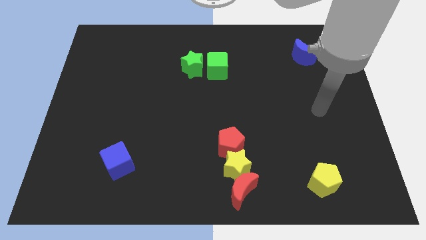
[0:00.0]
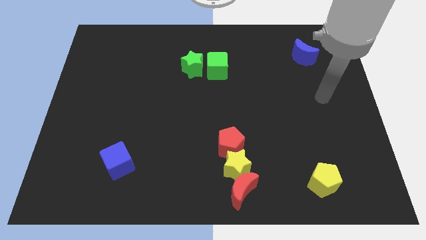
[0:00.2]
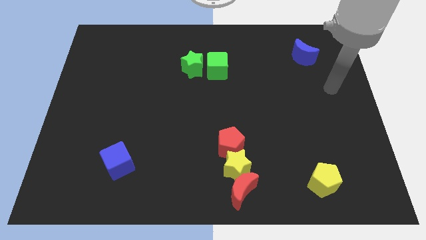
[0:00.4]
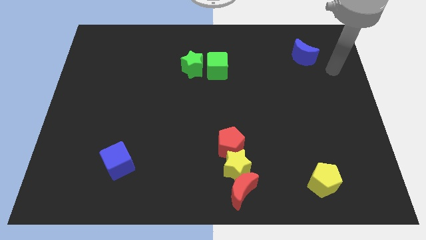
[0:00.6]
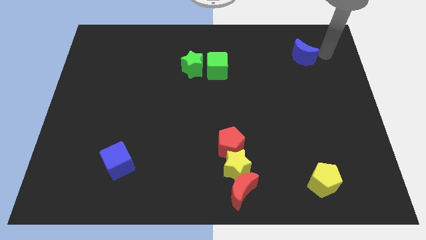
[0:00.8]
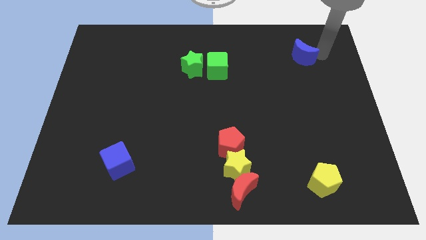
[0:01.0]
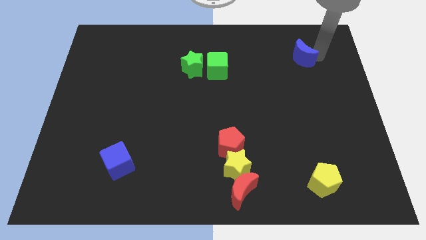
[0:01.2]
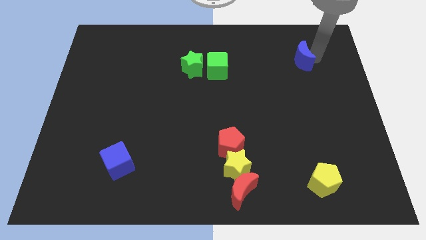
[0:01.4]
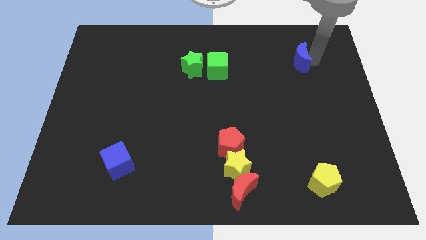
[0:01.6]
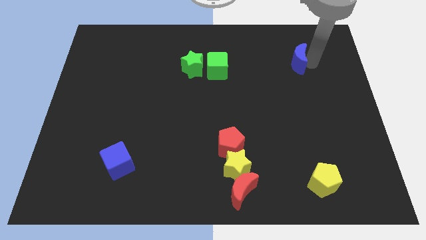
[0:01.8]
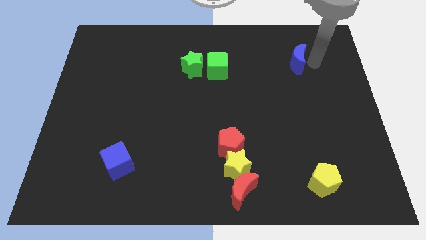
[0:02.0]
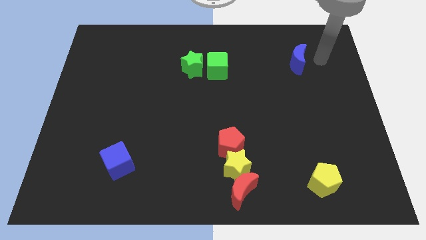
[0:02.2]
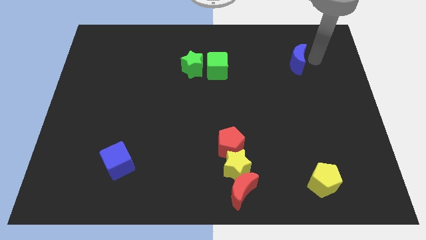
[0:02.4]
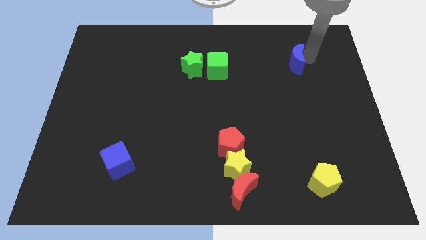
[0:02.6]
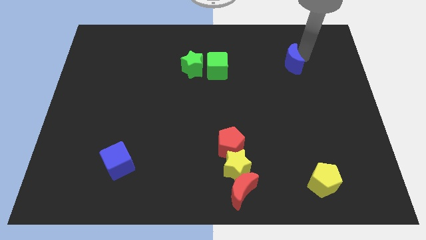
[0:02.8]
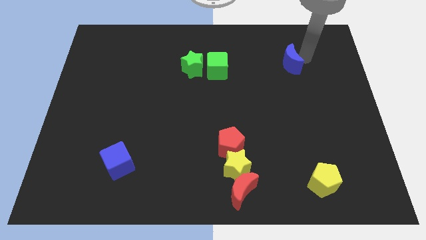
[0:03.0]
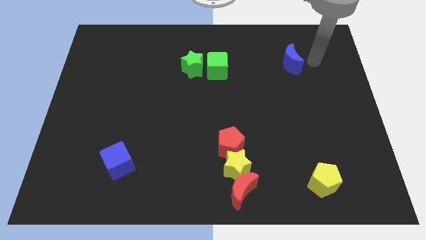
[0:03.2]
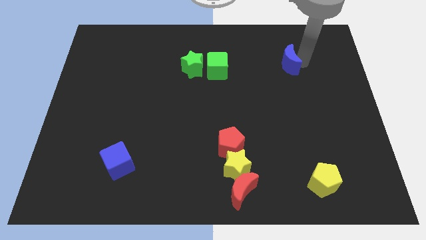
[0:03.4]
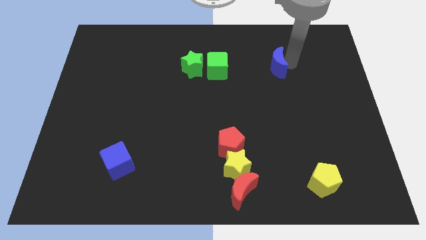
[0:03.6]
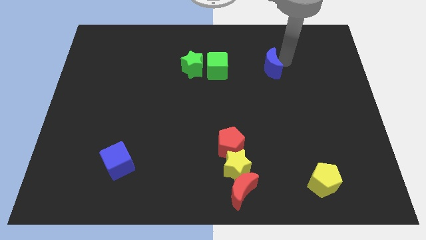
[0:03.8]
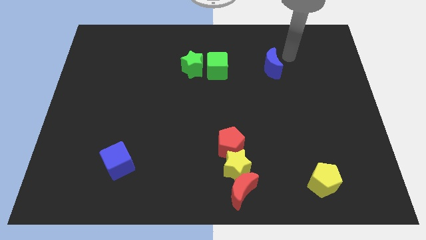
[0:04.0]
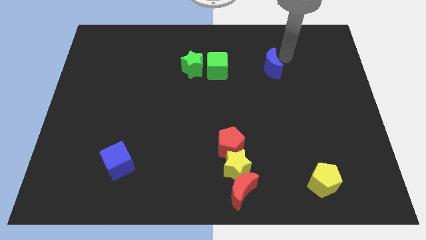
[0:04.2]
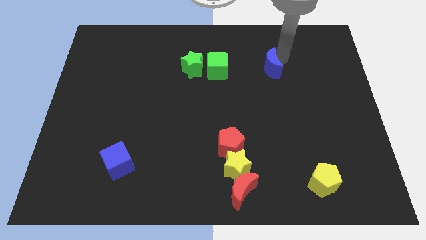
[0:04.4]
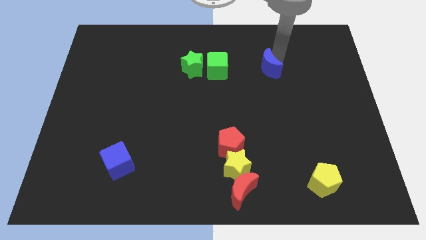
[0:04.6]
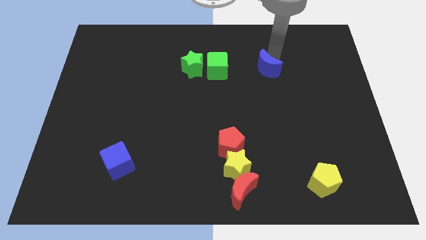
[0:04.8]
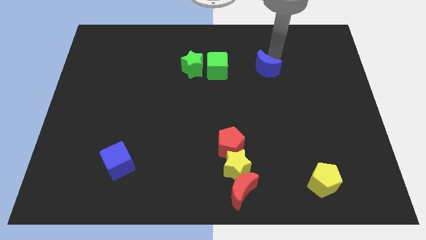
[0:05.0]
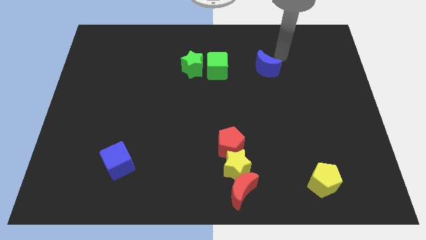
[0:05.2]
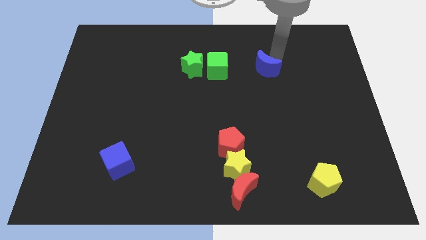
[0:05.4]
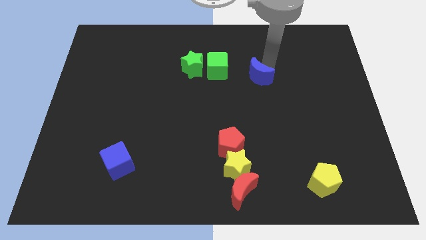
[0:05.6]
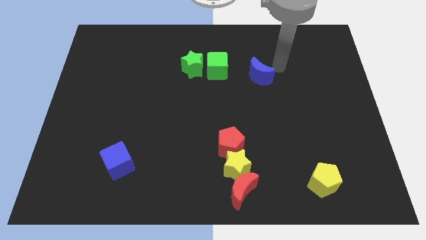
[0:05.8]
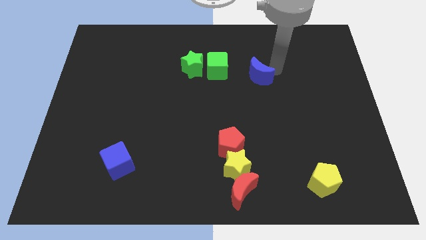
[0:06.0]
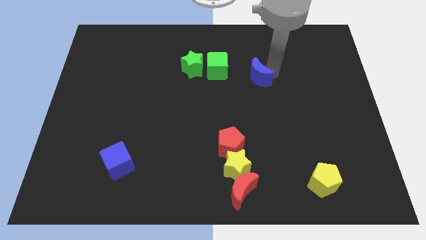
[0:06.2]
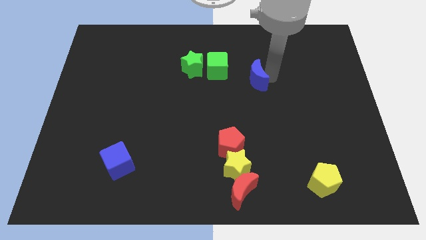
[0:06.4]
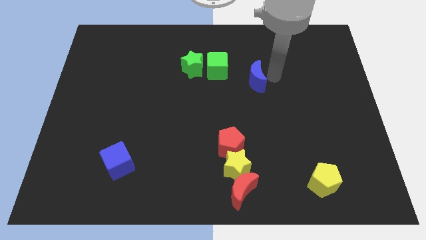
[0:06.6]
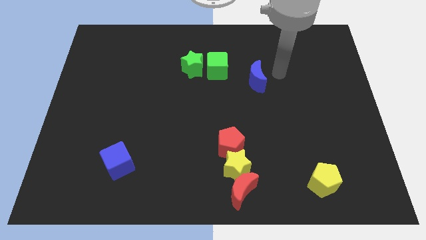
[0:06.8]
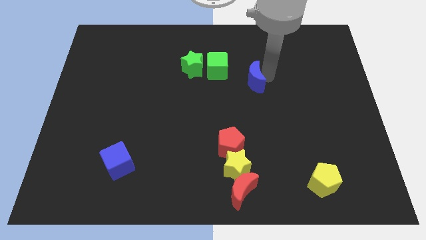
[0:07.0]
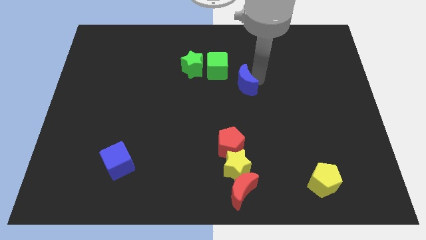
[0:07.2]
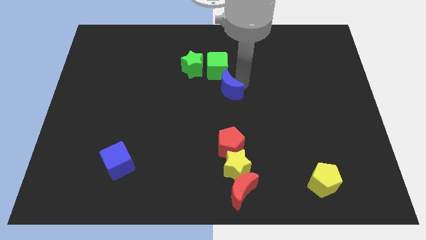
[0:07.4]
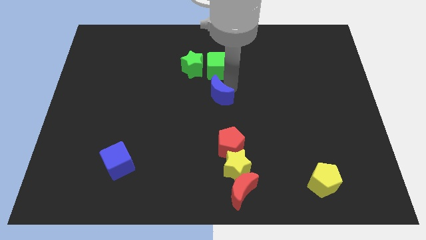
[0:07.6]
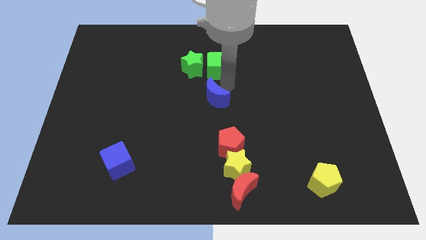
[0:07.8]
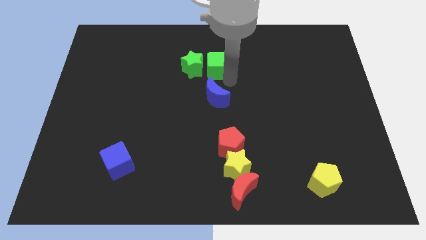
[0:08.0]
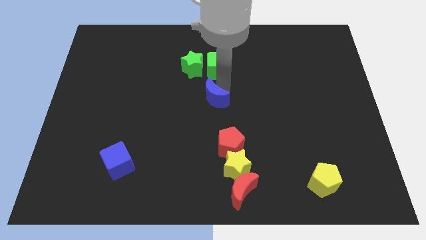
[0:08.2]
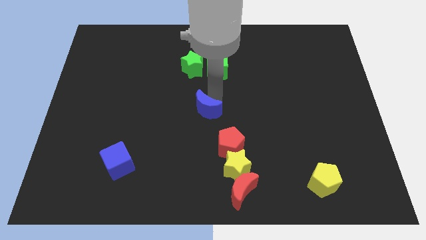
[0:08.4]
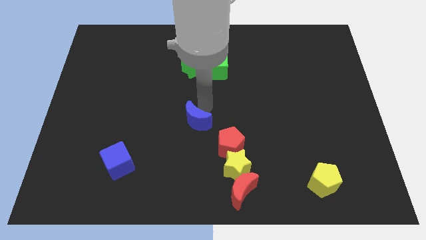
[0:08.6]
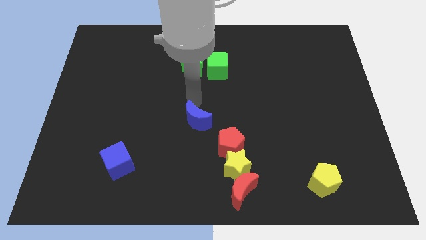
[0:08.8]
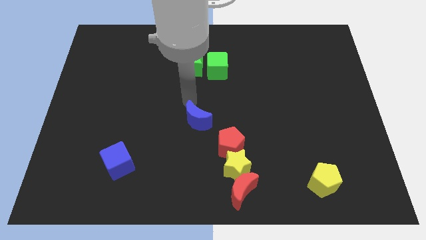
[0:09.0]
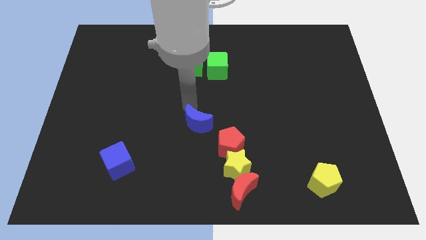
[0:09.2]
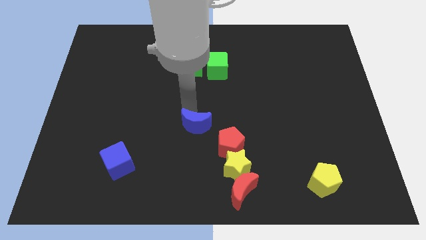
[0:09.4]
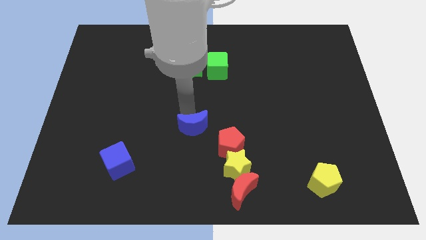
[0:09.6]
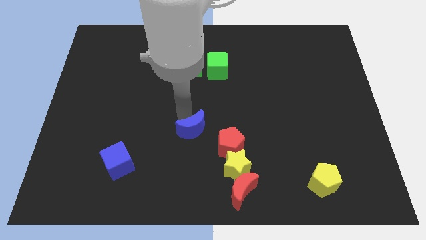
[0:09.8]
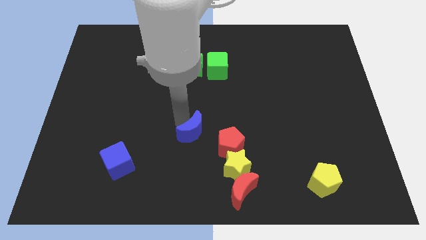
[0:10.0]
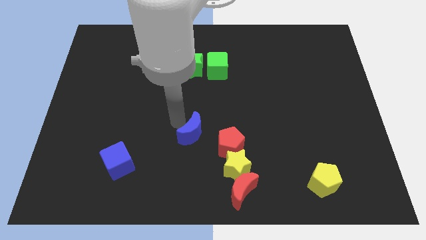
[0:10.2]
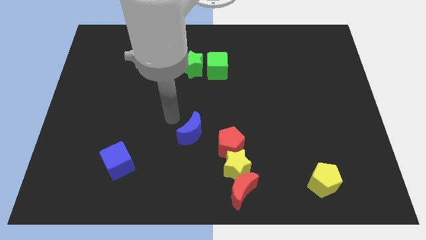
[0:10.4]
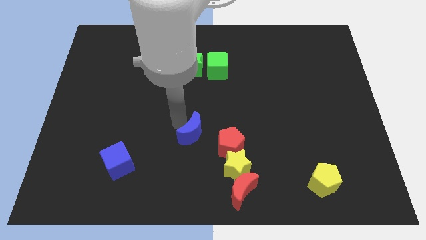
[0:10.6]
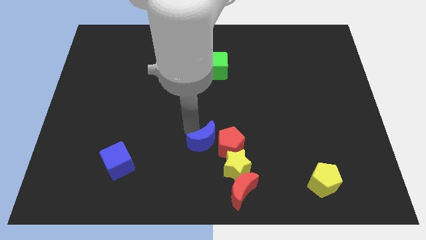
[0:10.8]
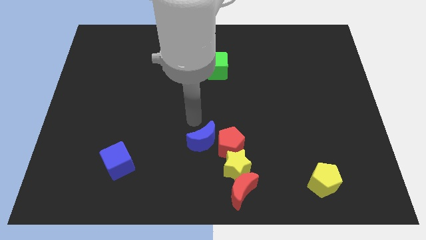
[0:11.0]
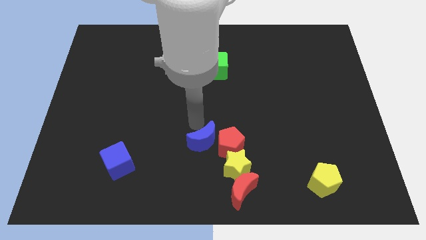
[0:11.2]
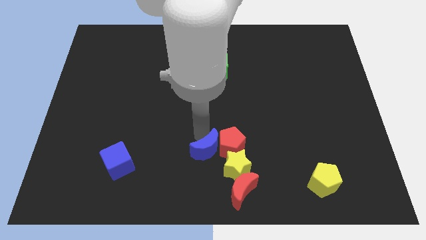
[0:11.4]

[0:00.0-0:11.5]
put the blue moon diagonally up and to the left of the red moon

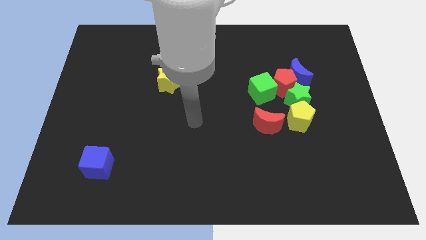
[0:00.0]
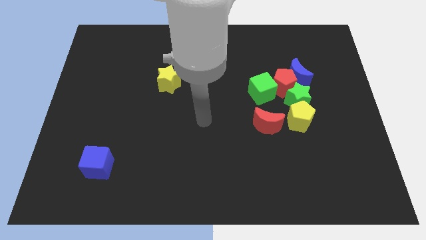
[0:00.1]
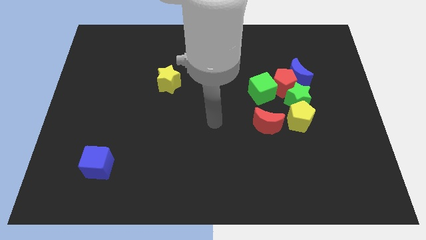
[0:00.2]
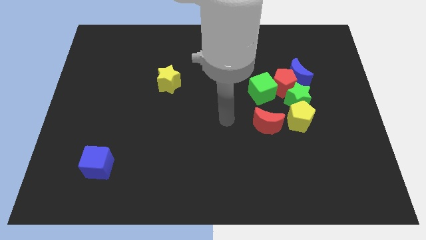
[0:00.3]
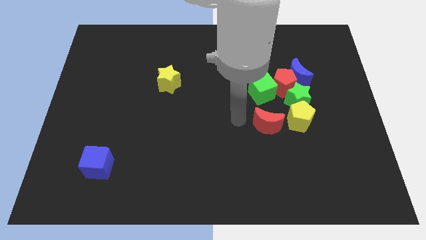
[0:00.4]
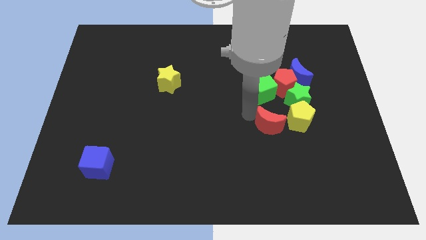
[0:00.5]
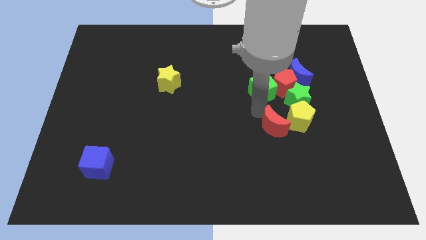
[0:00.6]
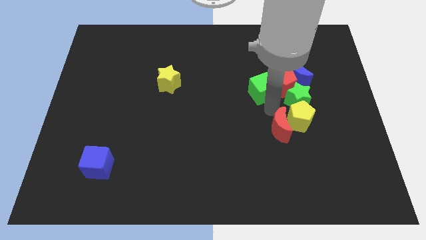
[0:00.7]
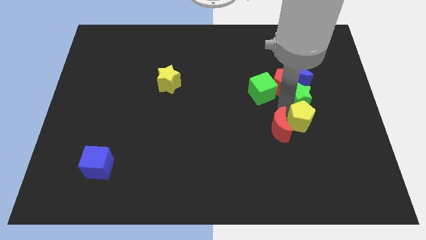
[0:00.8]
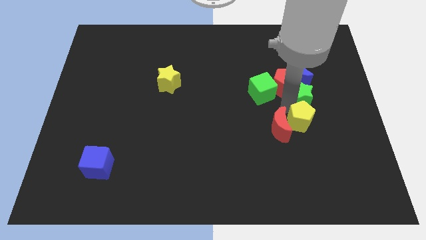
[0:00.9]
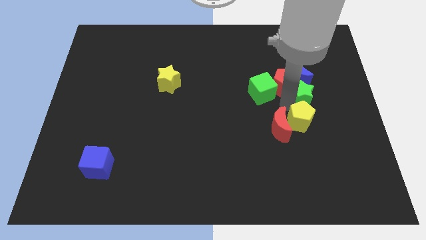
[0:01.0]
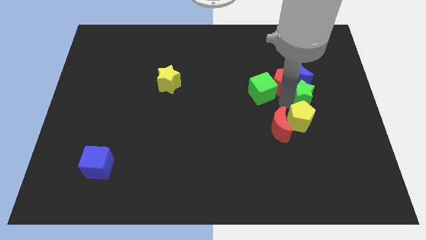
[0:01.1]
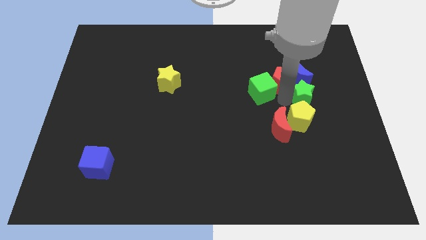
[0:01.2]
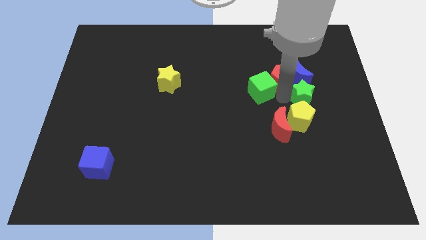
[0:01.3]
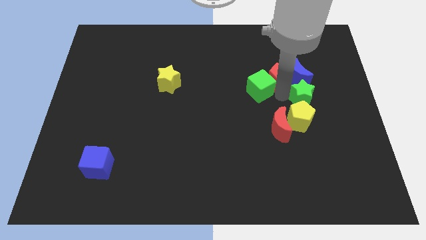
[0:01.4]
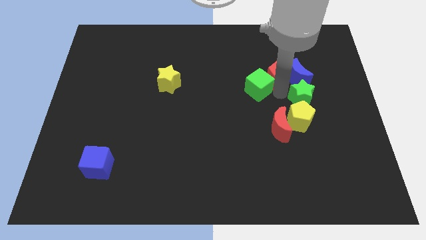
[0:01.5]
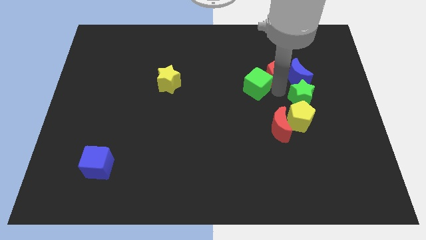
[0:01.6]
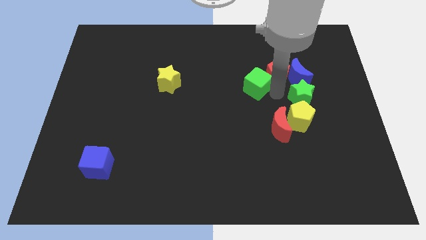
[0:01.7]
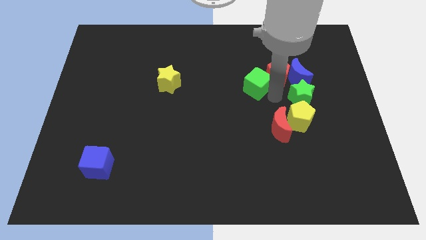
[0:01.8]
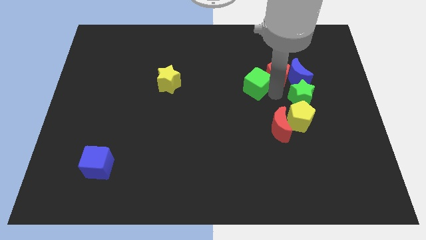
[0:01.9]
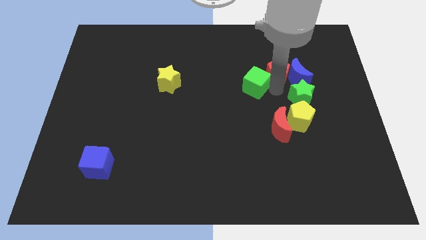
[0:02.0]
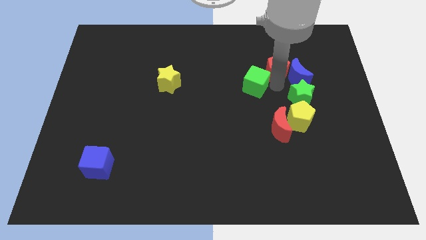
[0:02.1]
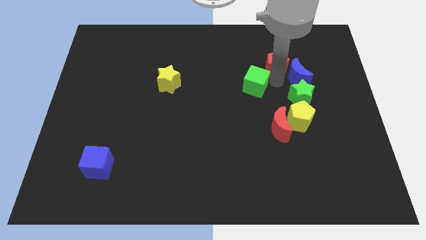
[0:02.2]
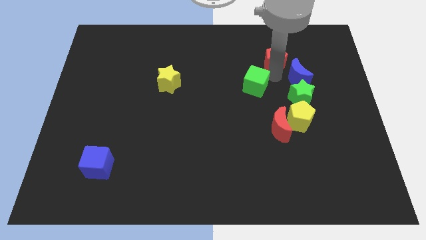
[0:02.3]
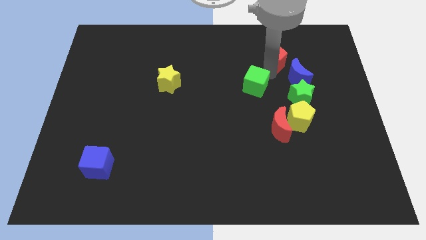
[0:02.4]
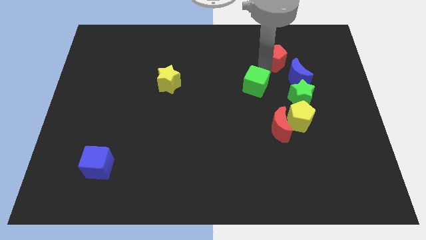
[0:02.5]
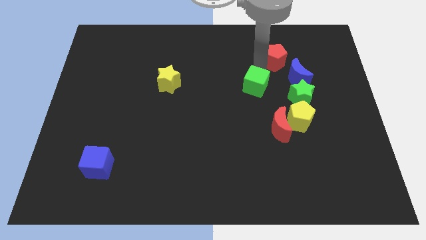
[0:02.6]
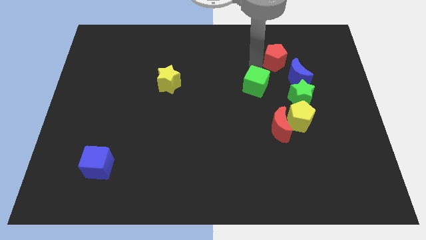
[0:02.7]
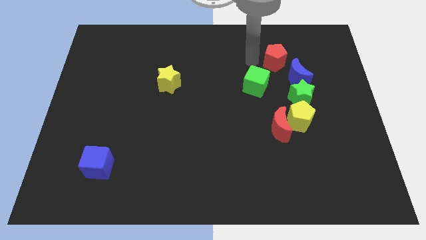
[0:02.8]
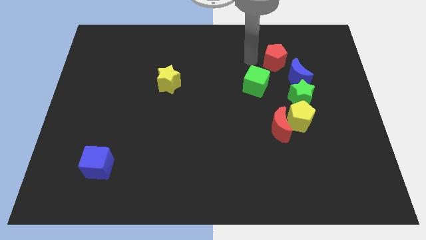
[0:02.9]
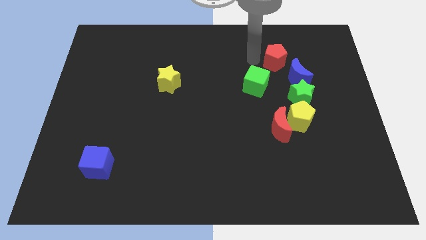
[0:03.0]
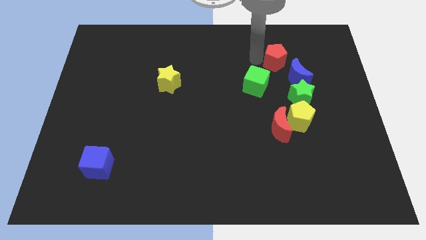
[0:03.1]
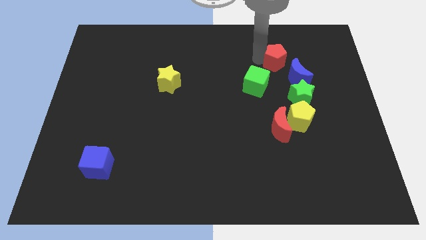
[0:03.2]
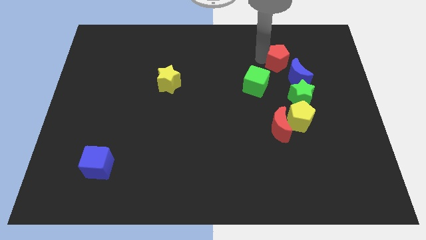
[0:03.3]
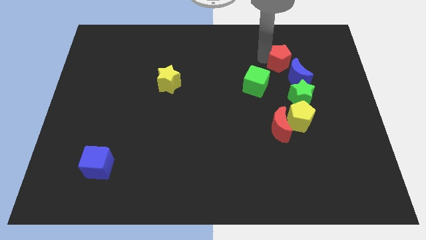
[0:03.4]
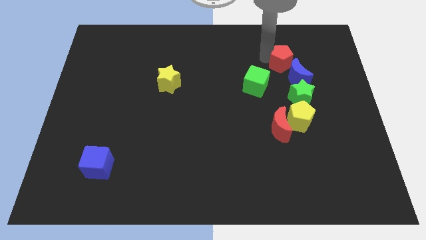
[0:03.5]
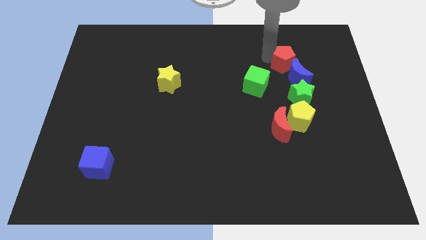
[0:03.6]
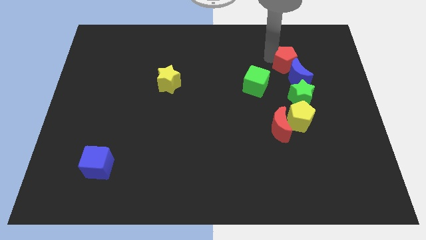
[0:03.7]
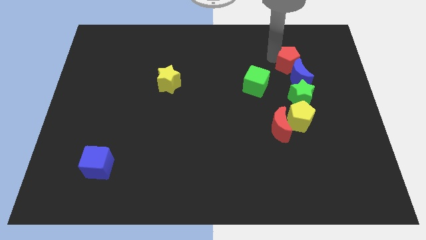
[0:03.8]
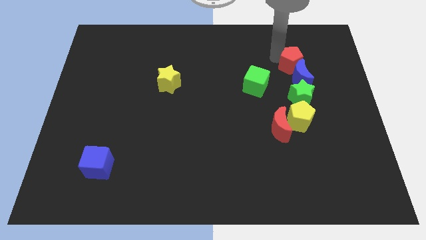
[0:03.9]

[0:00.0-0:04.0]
push the red pentagon diagonally up and to the right of the blue moon
